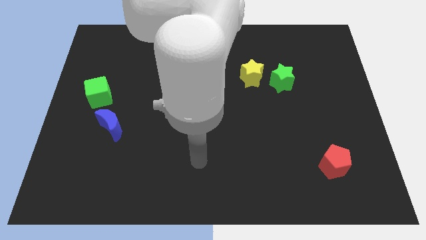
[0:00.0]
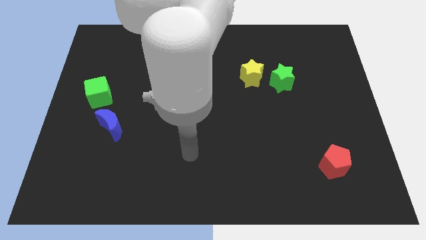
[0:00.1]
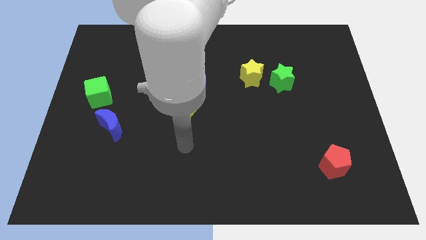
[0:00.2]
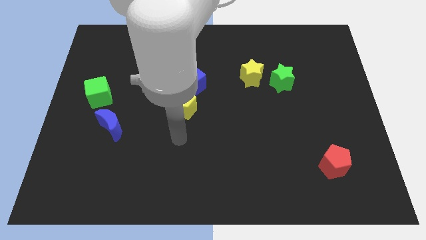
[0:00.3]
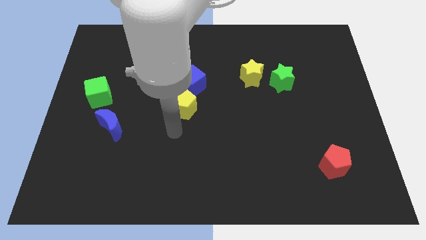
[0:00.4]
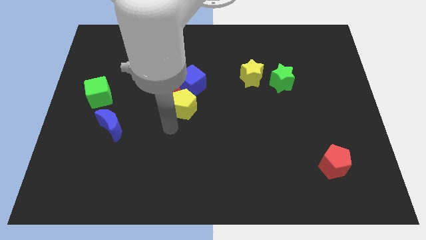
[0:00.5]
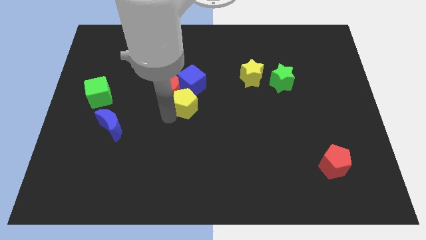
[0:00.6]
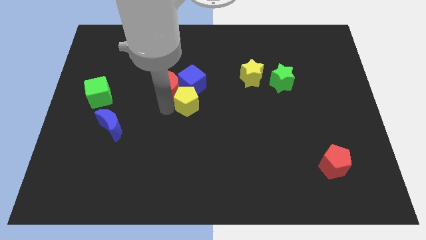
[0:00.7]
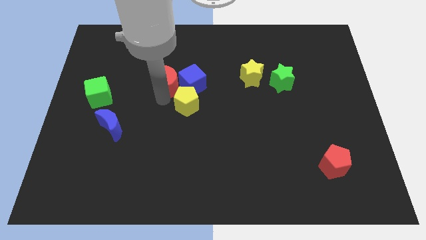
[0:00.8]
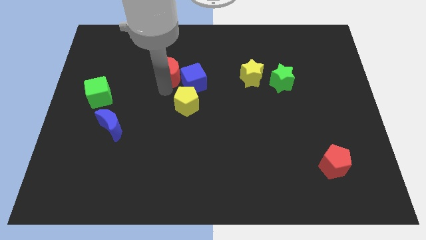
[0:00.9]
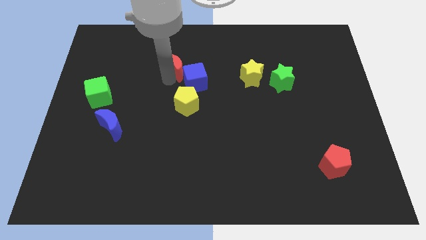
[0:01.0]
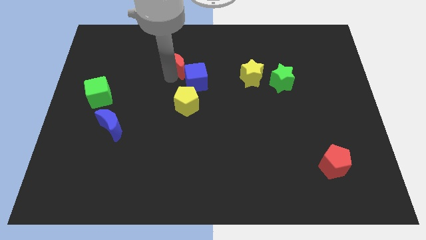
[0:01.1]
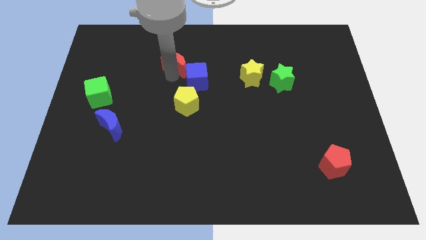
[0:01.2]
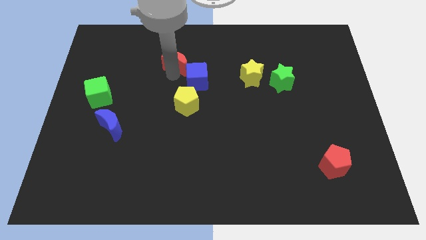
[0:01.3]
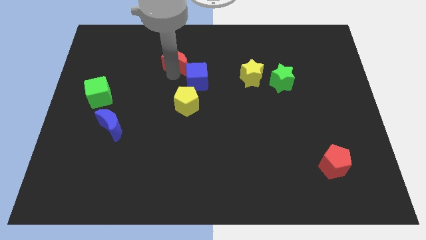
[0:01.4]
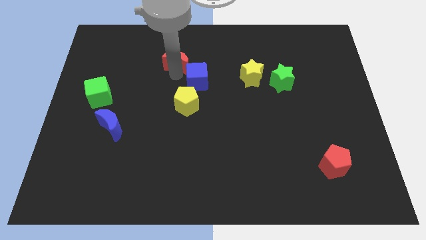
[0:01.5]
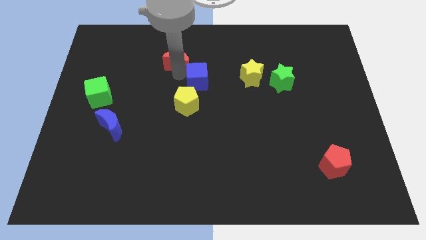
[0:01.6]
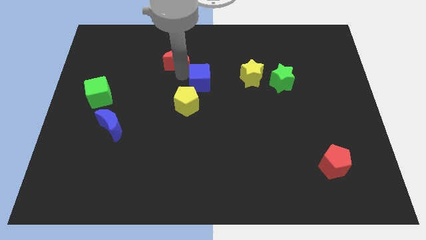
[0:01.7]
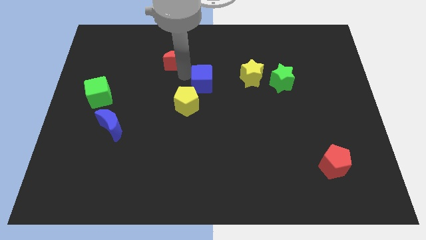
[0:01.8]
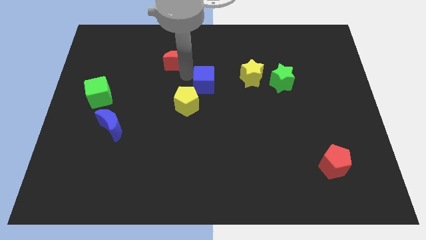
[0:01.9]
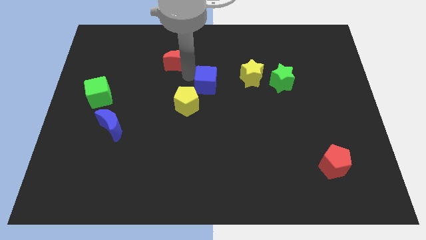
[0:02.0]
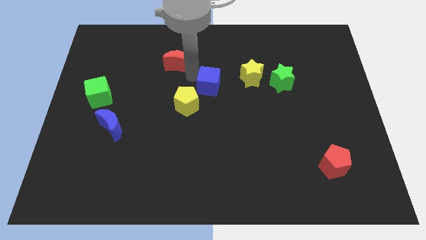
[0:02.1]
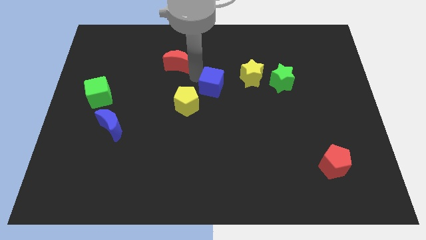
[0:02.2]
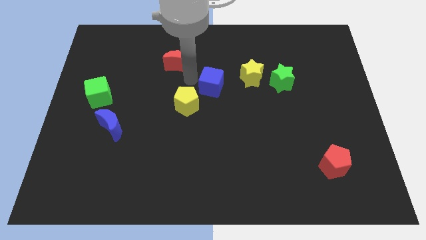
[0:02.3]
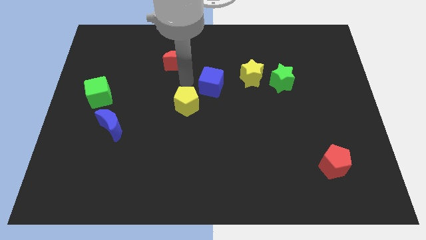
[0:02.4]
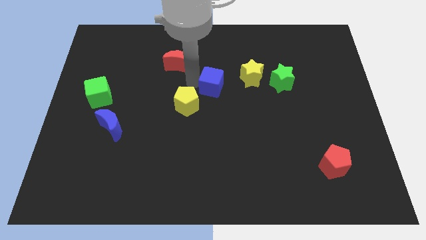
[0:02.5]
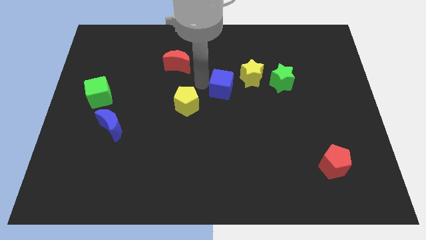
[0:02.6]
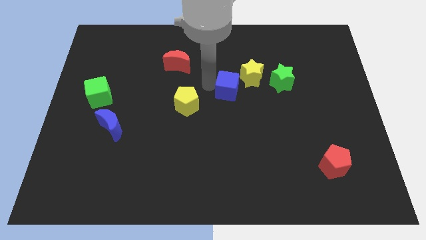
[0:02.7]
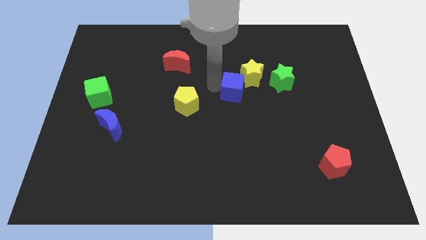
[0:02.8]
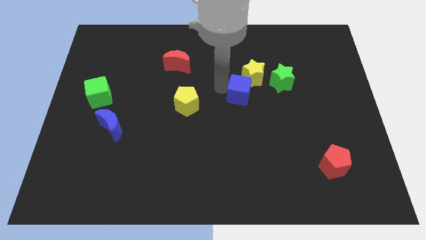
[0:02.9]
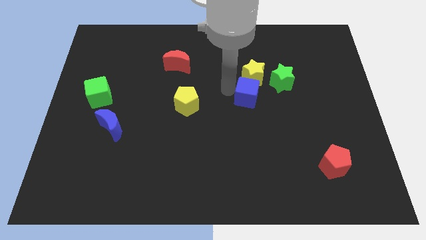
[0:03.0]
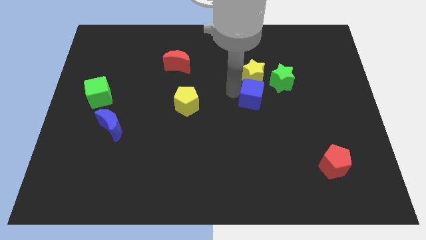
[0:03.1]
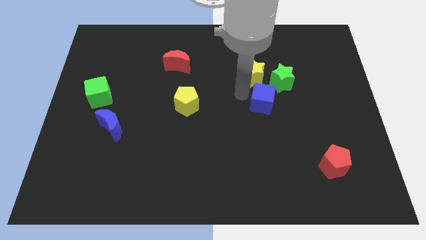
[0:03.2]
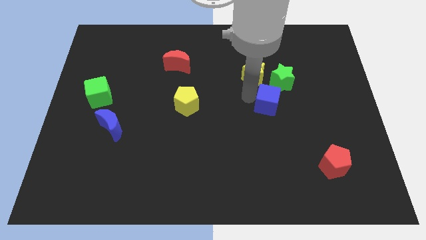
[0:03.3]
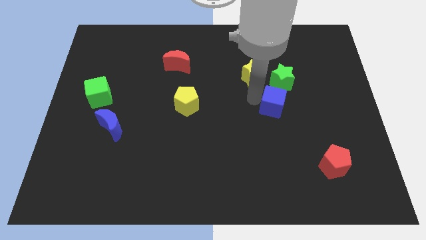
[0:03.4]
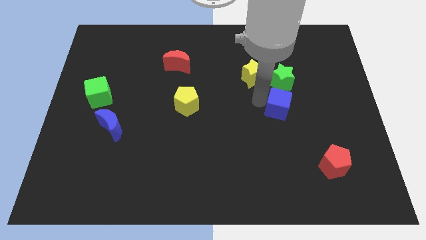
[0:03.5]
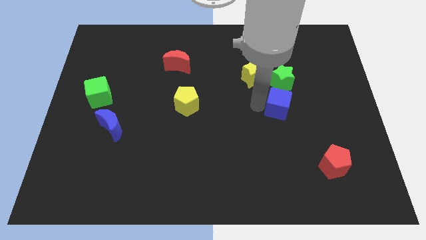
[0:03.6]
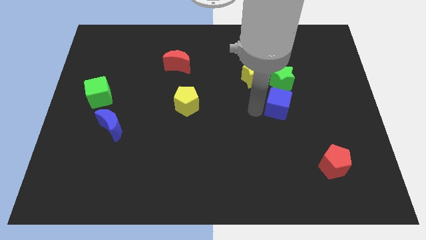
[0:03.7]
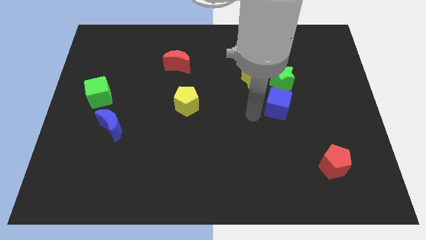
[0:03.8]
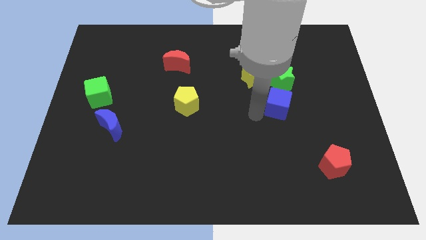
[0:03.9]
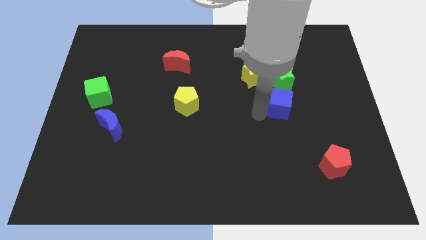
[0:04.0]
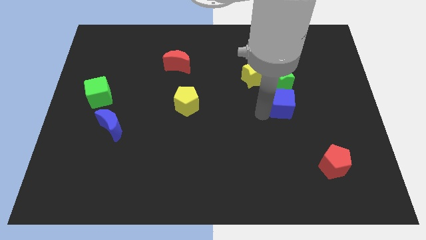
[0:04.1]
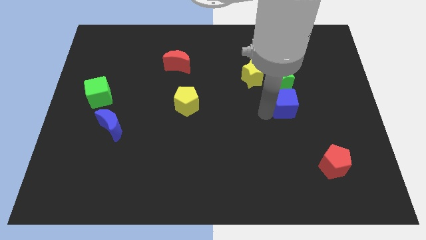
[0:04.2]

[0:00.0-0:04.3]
push the blue cube right

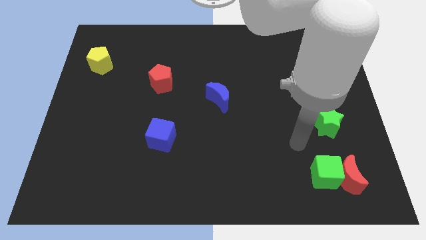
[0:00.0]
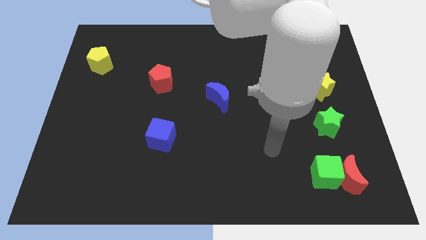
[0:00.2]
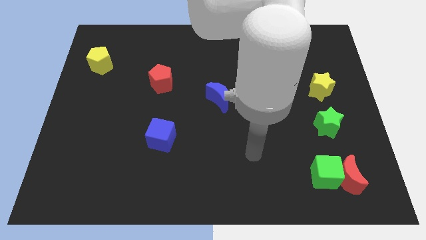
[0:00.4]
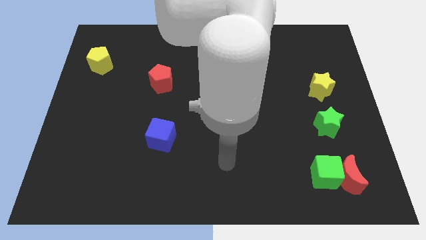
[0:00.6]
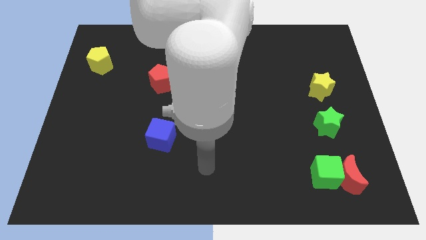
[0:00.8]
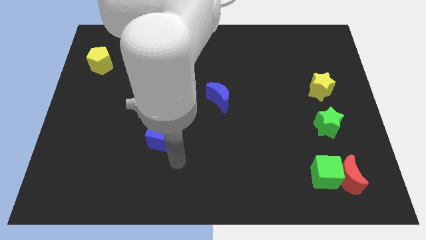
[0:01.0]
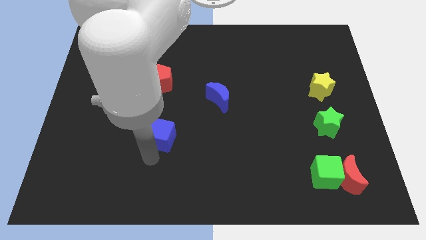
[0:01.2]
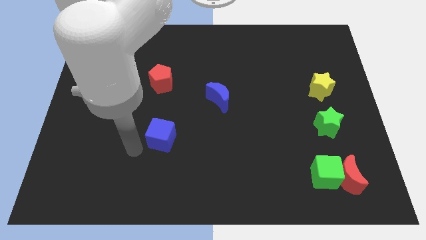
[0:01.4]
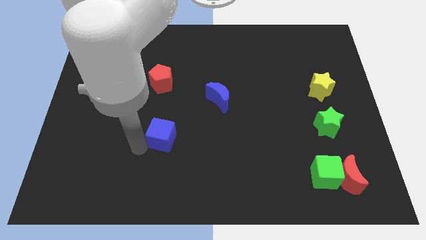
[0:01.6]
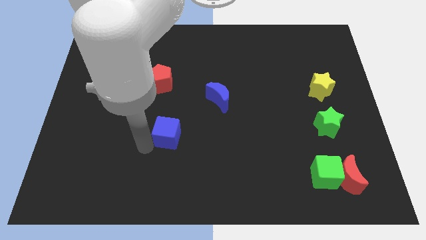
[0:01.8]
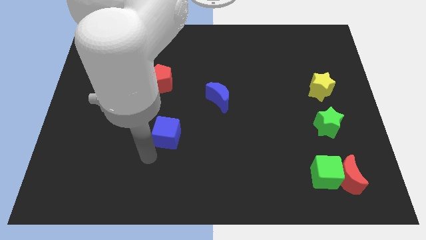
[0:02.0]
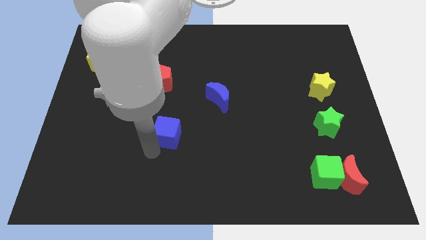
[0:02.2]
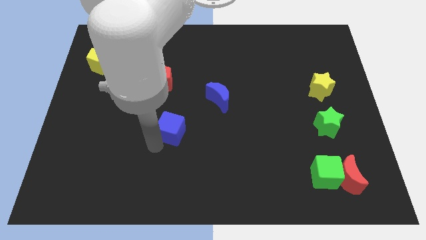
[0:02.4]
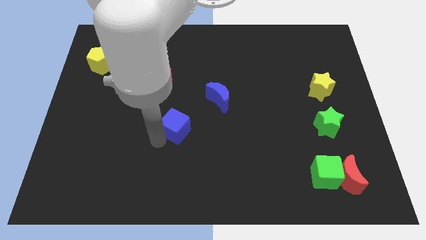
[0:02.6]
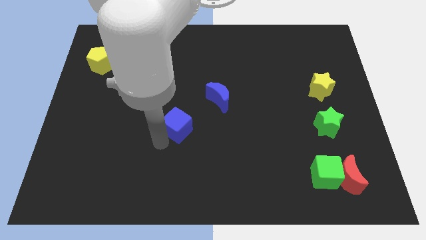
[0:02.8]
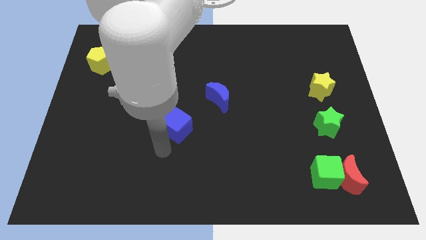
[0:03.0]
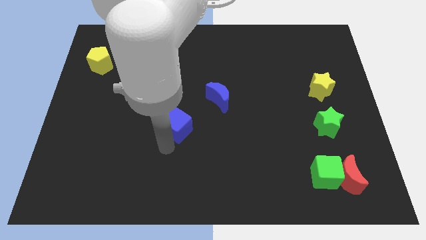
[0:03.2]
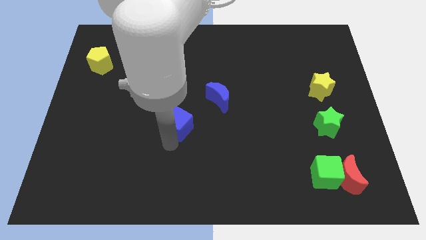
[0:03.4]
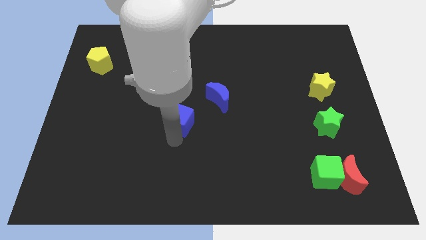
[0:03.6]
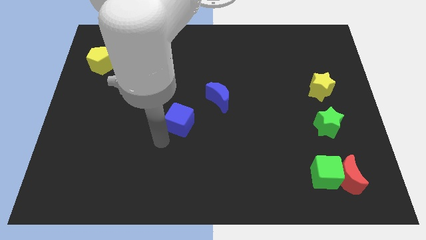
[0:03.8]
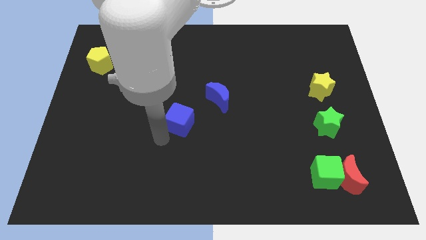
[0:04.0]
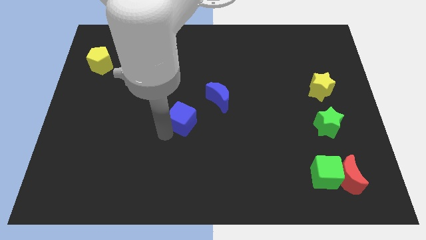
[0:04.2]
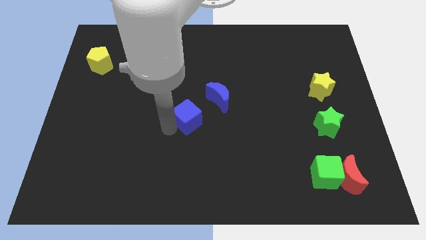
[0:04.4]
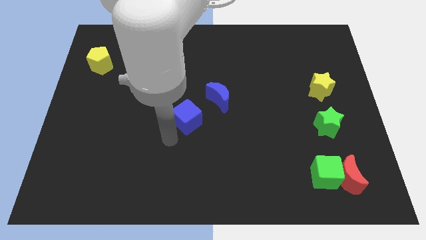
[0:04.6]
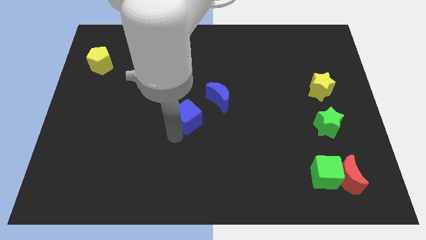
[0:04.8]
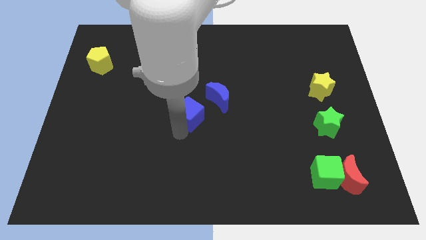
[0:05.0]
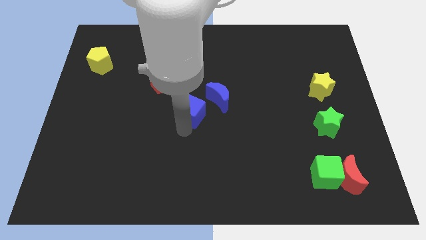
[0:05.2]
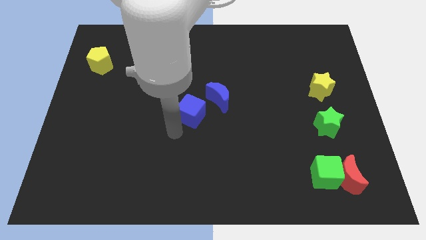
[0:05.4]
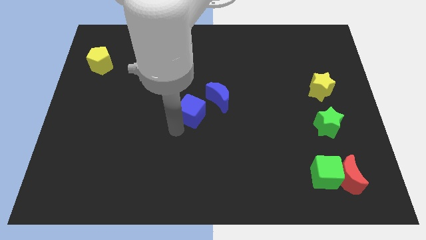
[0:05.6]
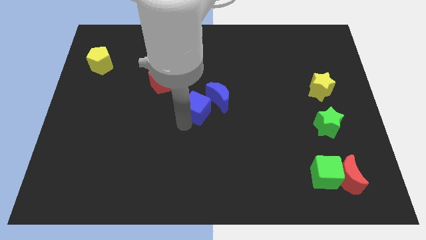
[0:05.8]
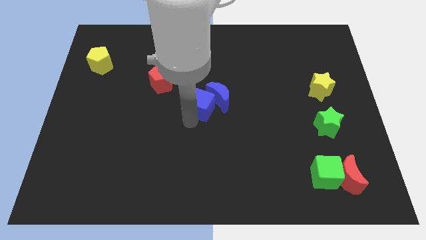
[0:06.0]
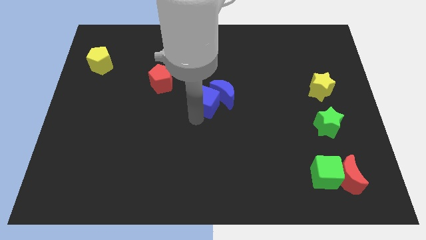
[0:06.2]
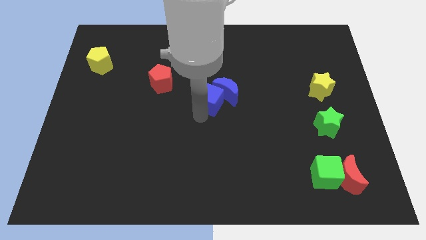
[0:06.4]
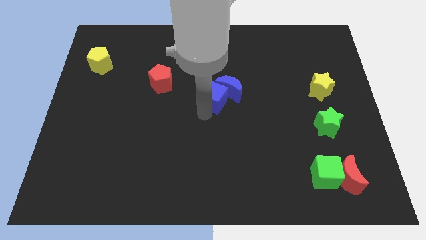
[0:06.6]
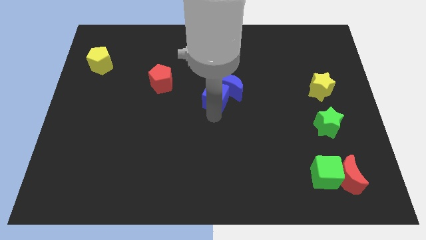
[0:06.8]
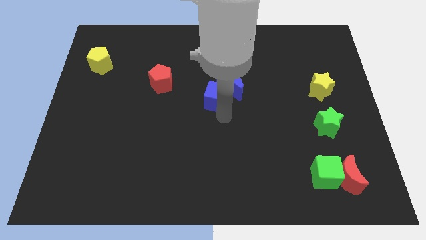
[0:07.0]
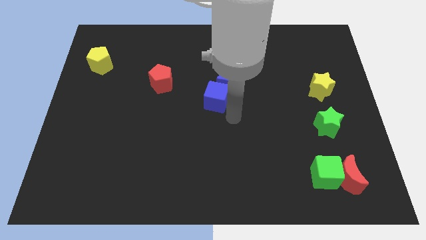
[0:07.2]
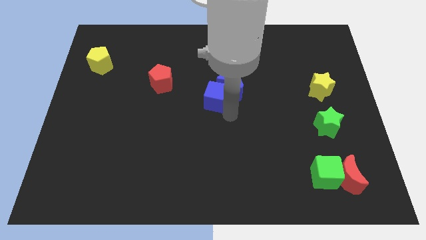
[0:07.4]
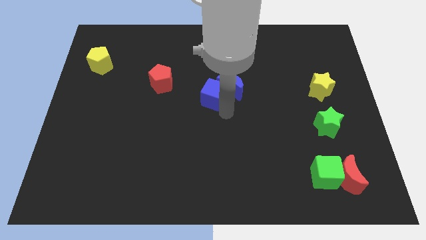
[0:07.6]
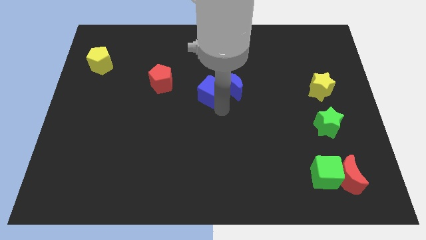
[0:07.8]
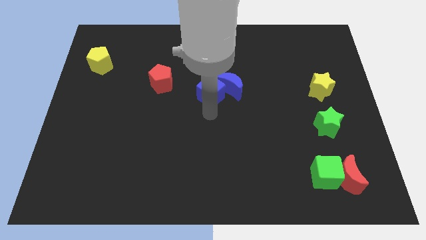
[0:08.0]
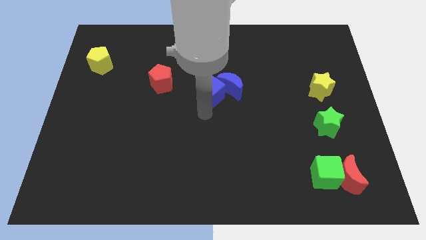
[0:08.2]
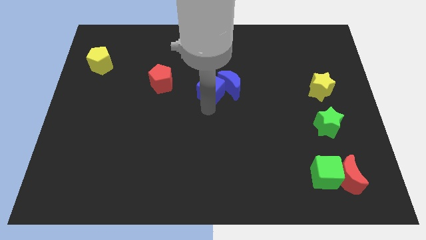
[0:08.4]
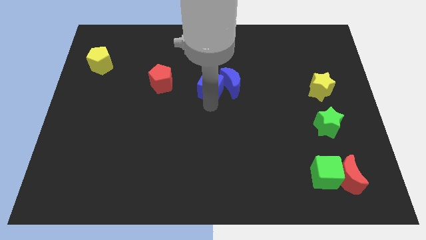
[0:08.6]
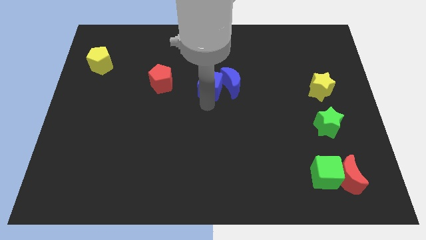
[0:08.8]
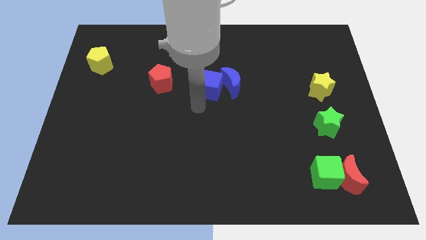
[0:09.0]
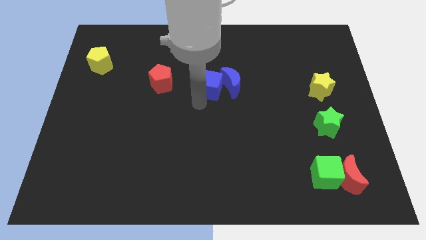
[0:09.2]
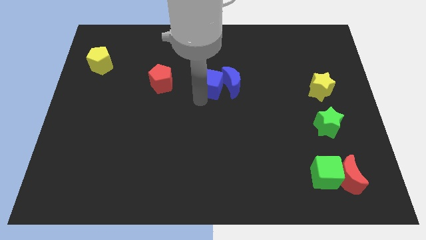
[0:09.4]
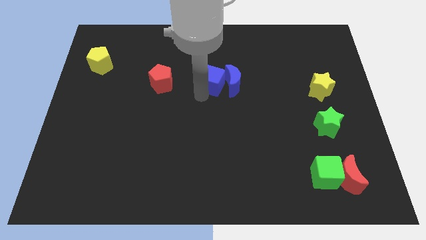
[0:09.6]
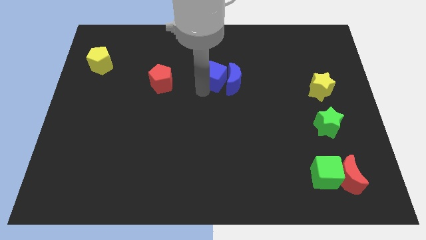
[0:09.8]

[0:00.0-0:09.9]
slide the blue cube diagonally up and to the right
